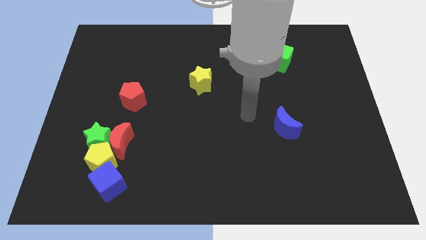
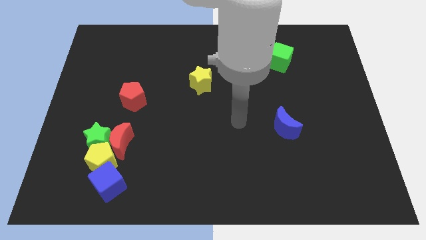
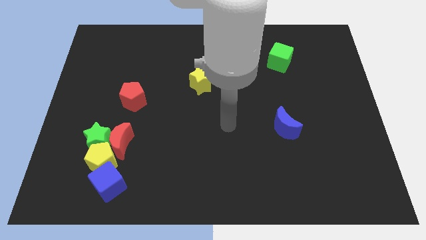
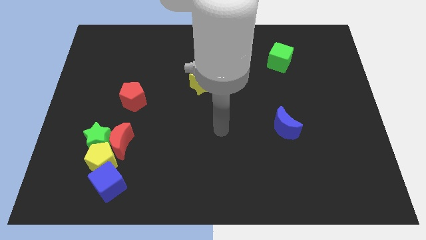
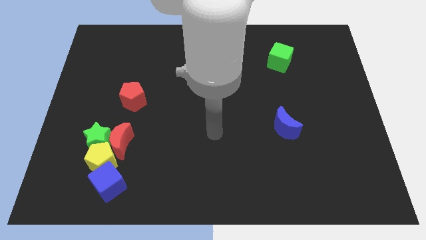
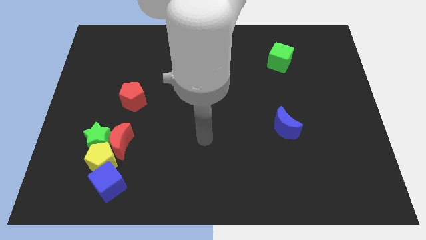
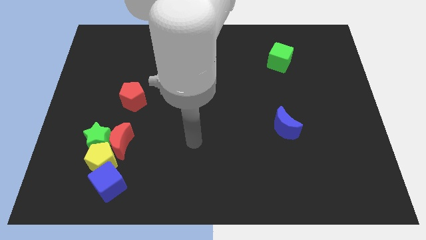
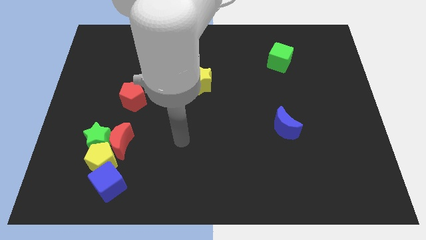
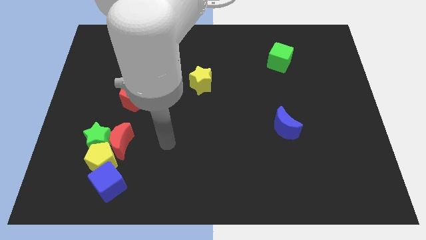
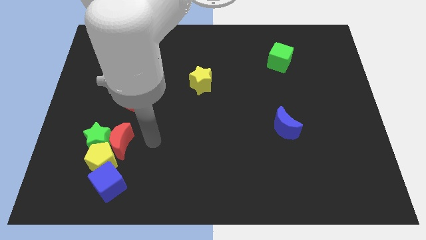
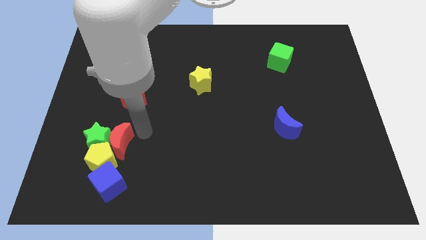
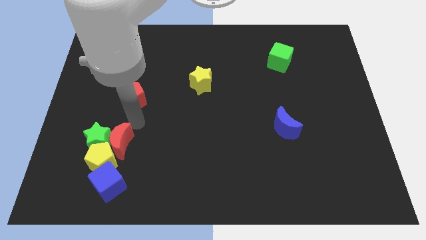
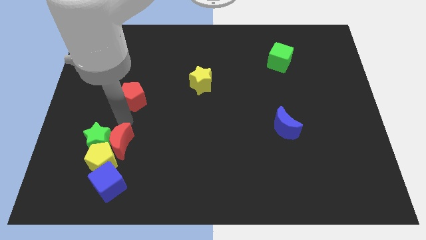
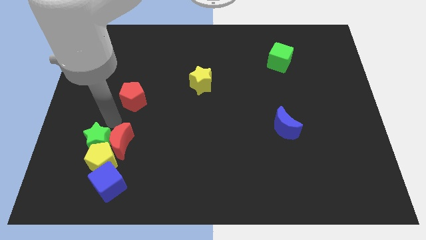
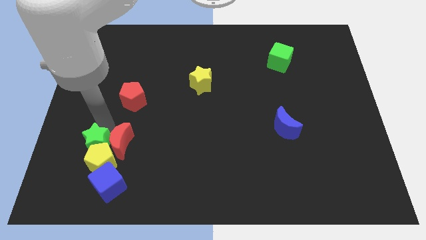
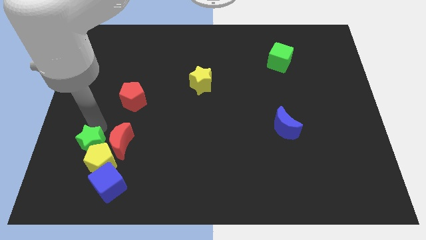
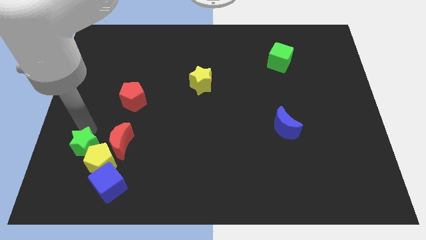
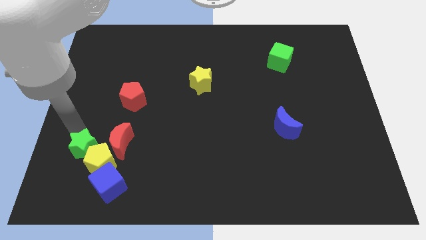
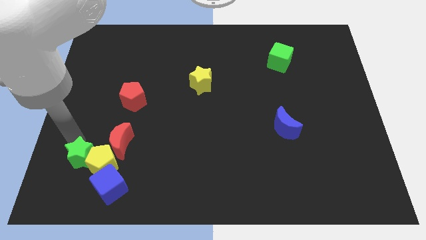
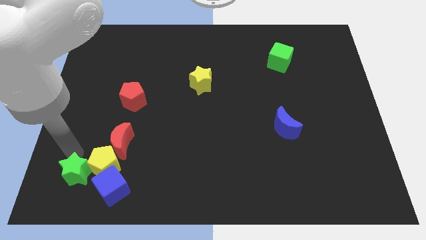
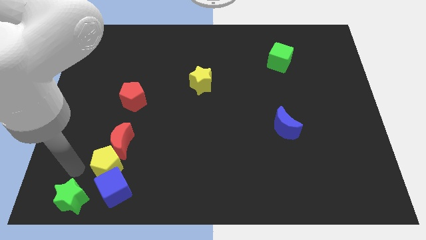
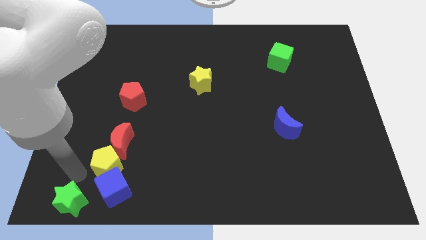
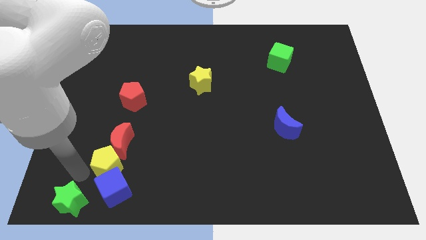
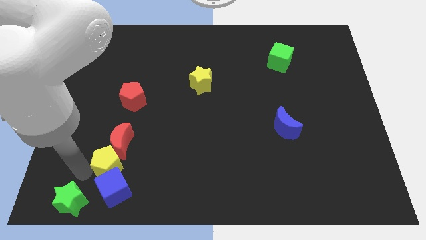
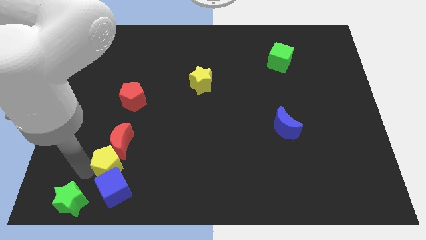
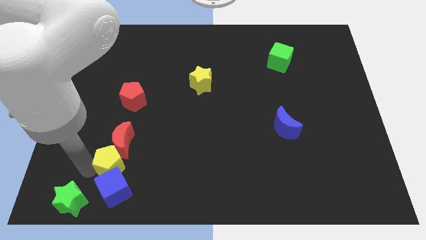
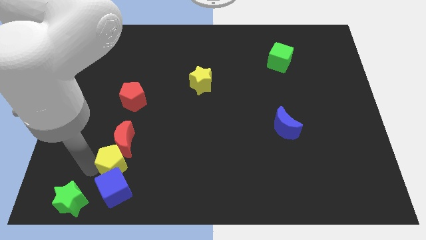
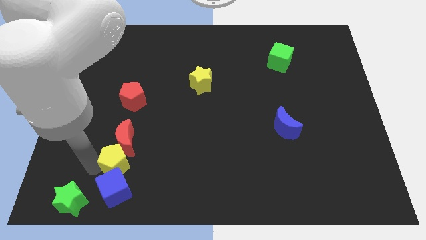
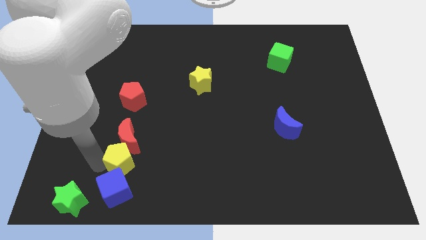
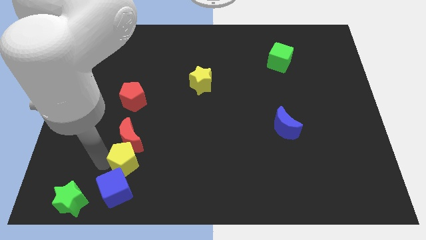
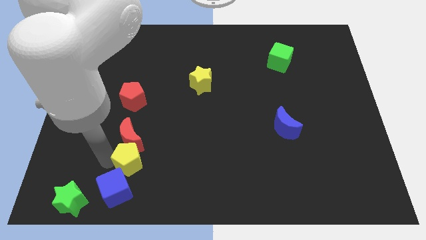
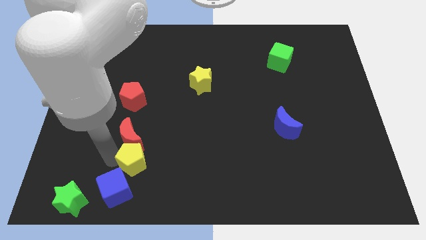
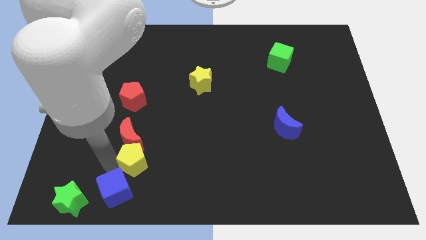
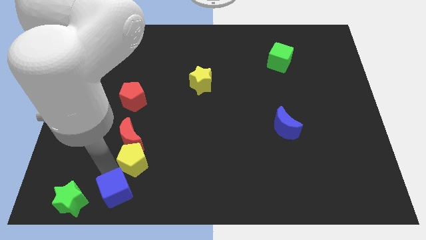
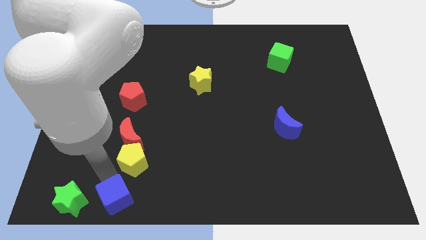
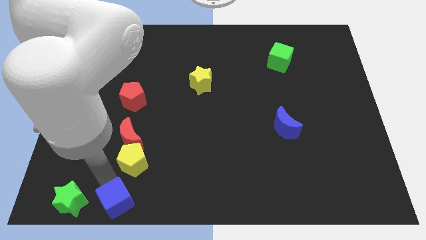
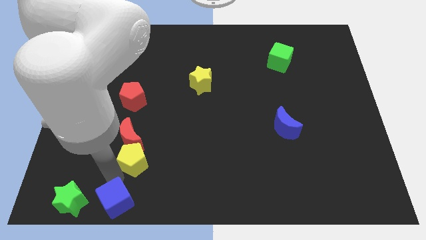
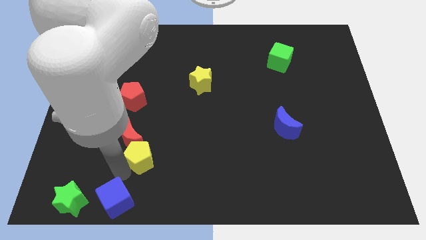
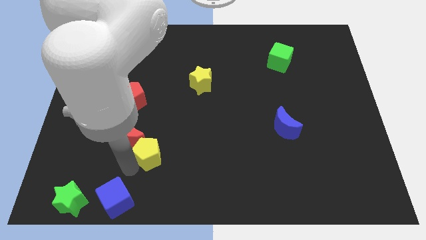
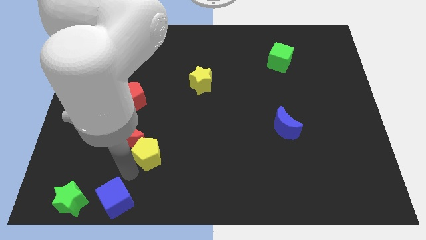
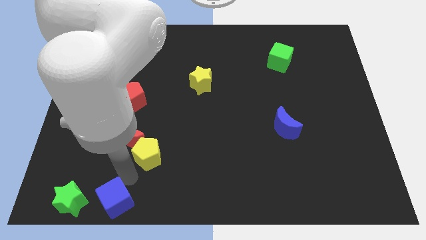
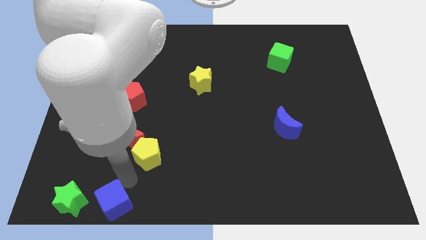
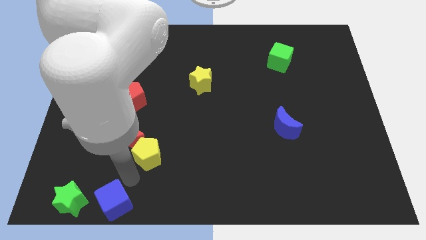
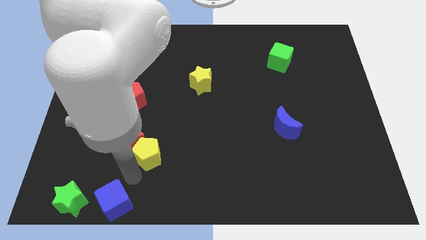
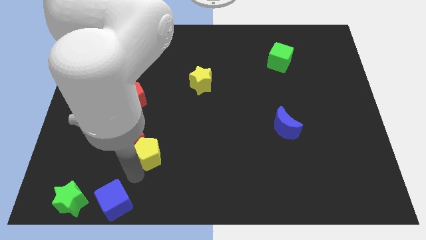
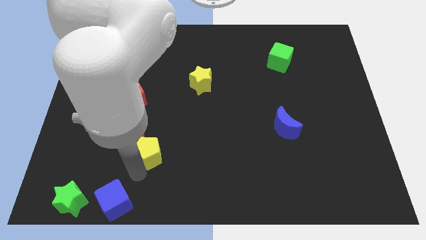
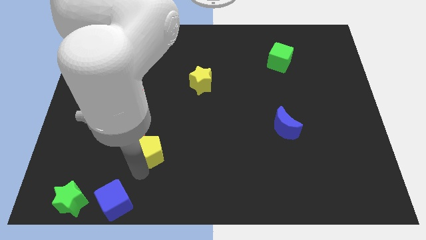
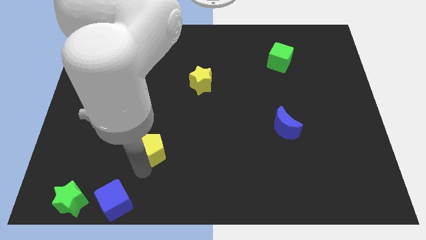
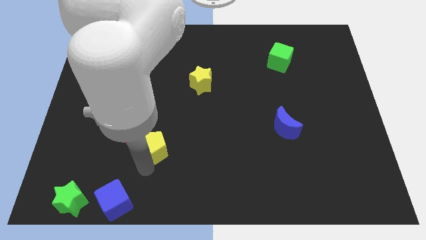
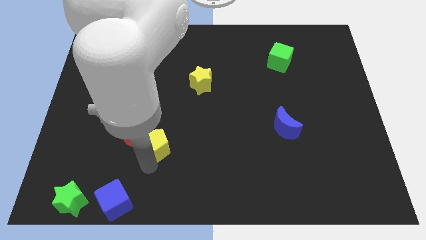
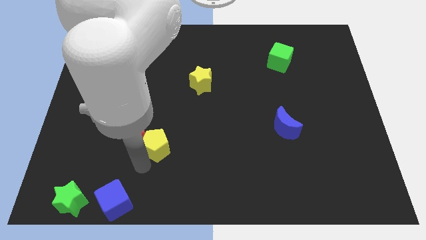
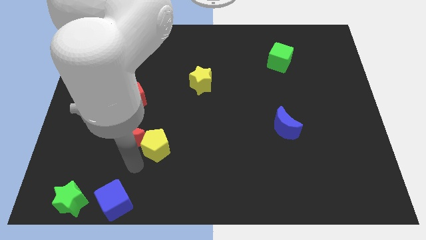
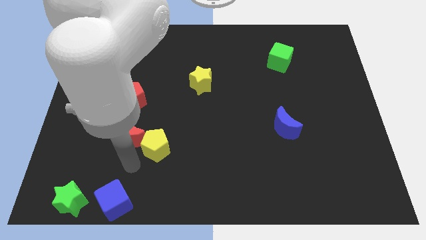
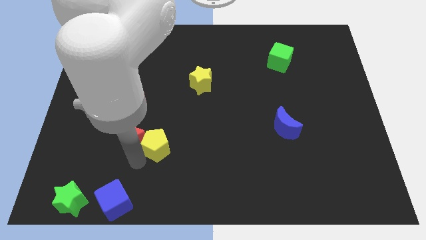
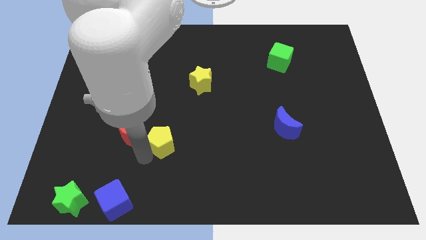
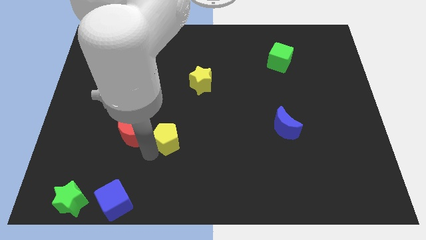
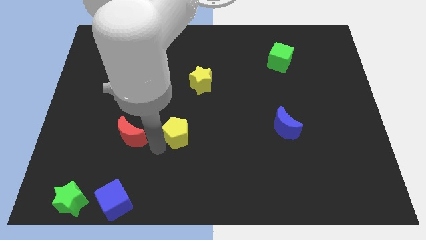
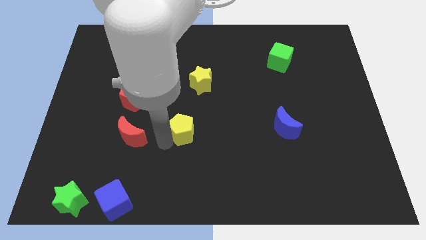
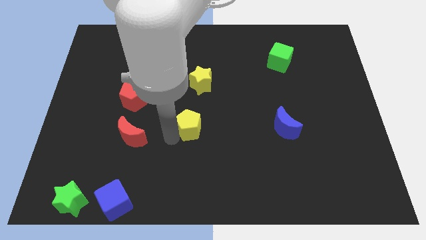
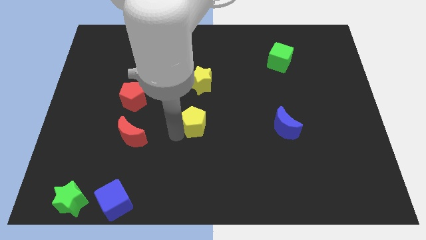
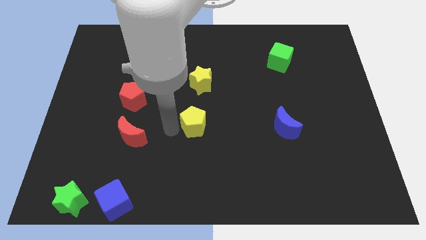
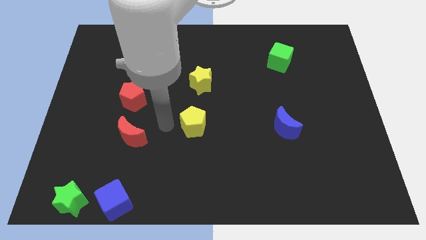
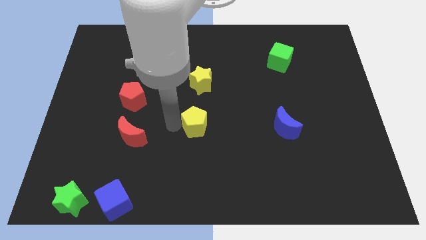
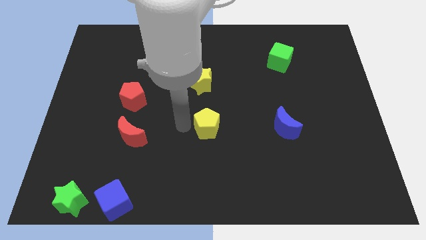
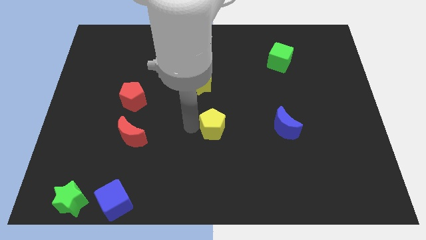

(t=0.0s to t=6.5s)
put the yellow pentagon just left of the blue moon

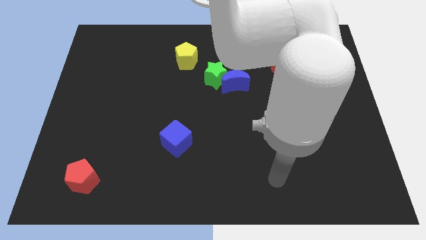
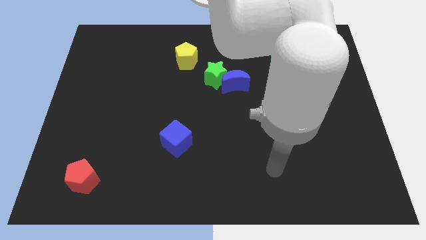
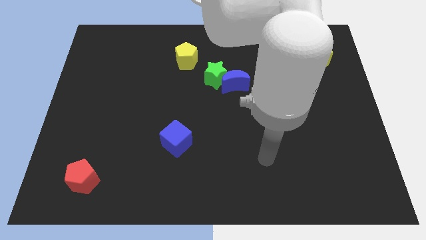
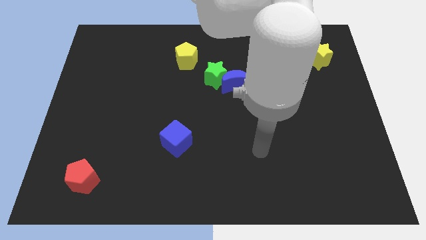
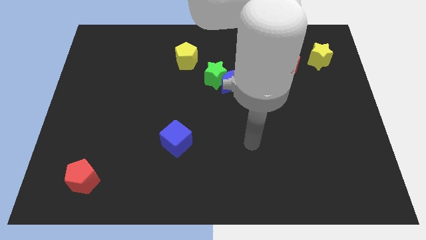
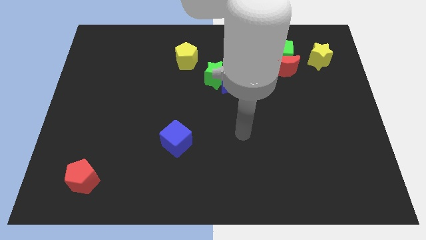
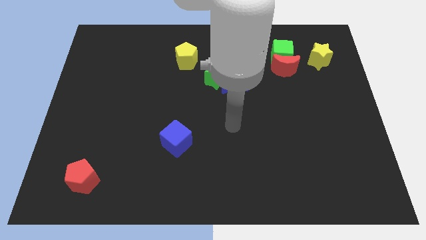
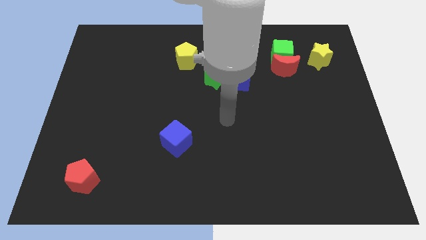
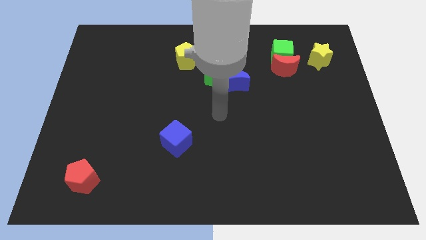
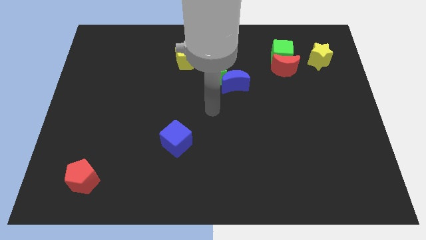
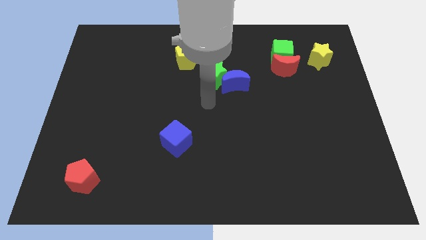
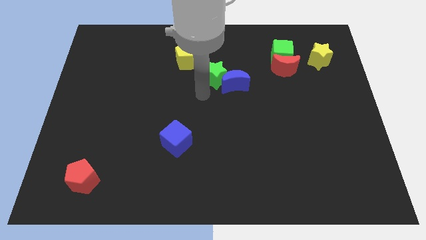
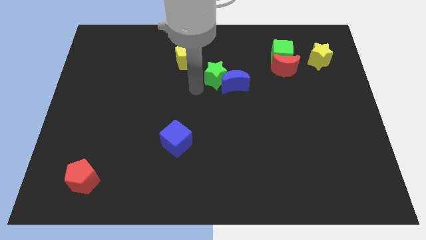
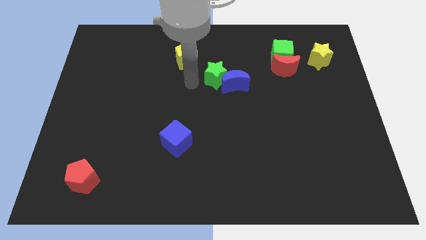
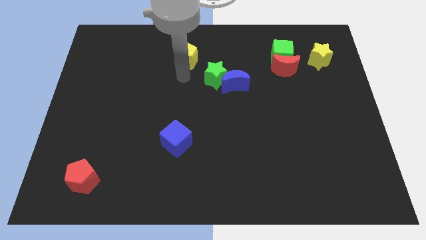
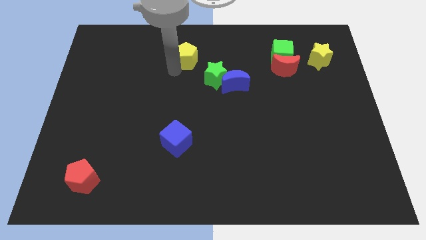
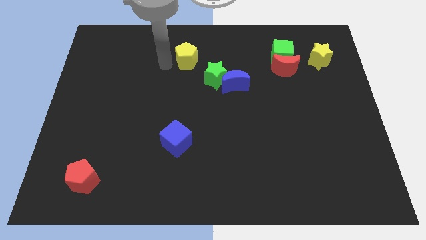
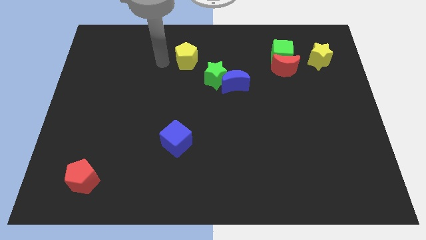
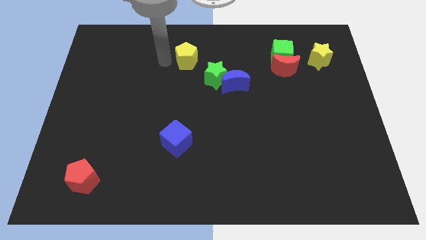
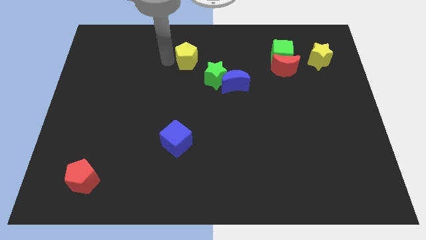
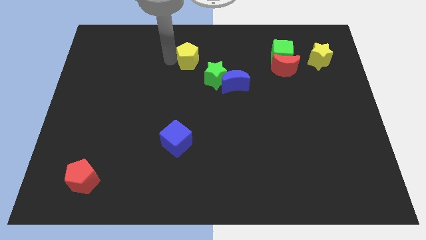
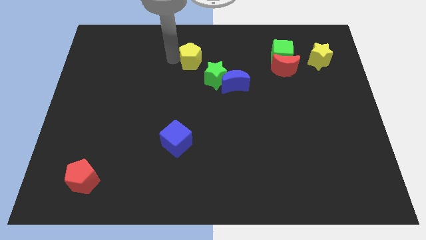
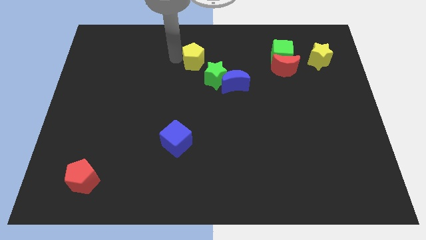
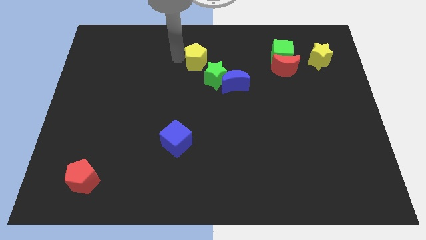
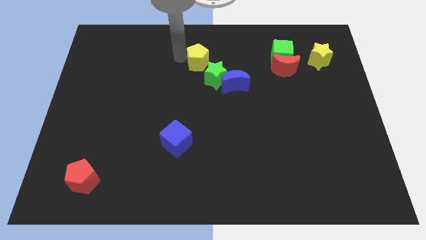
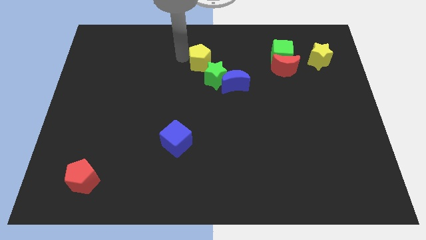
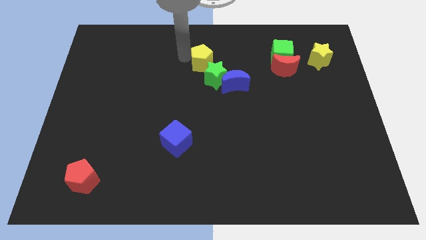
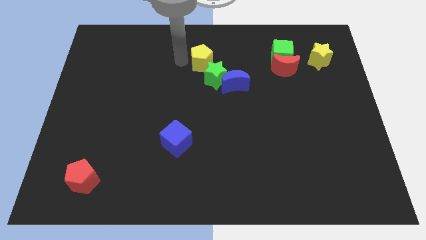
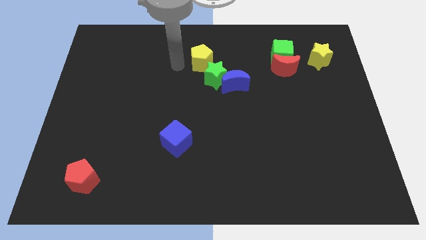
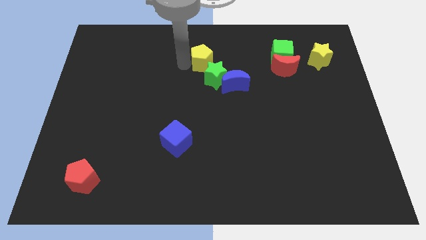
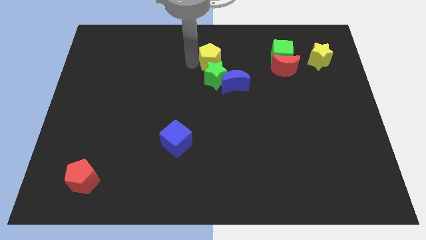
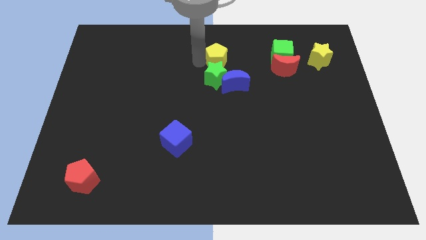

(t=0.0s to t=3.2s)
slide the yellow pentagon above the blue moon
